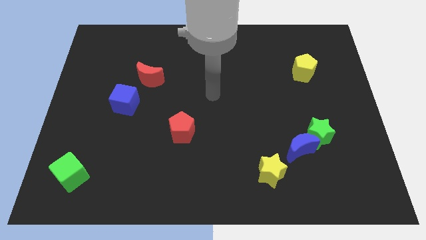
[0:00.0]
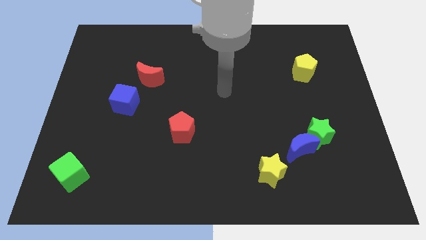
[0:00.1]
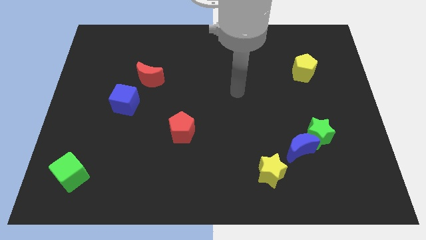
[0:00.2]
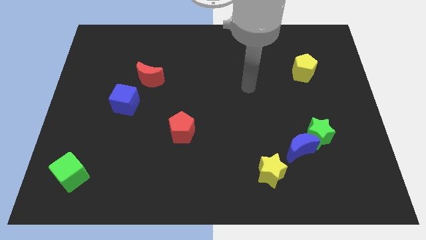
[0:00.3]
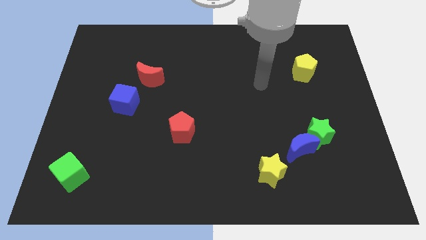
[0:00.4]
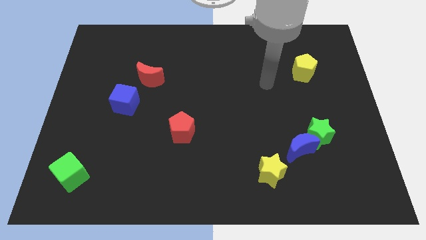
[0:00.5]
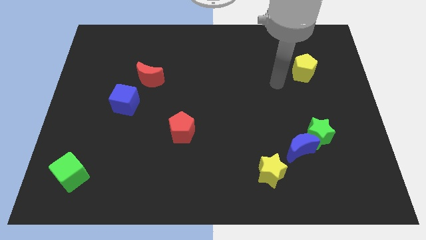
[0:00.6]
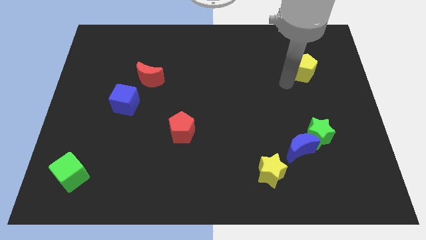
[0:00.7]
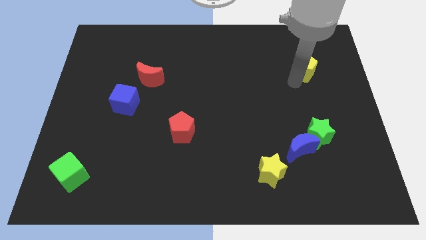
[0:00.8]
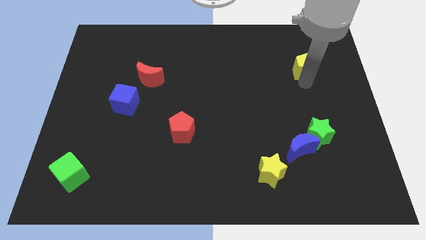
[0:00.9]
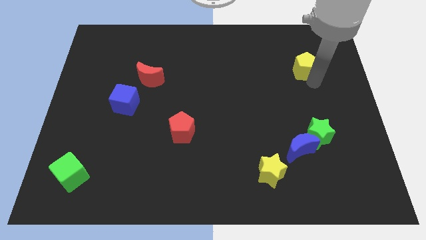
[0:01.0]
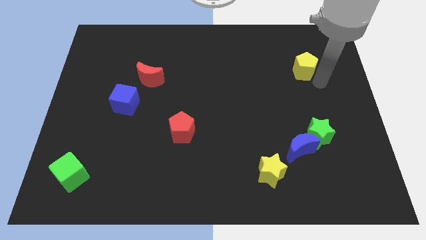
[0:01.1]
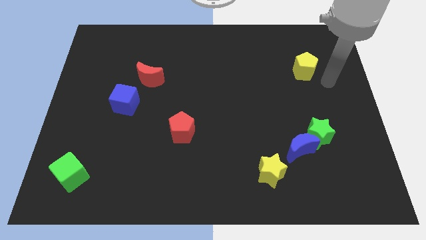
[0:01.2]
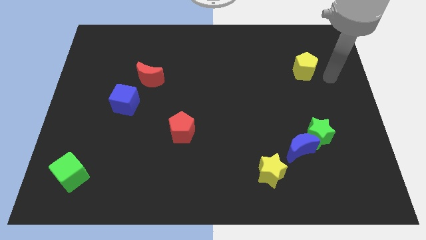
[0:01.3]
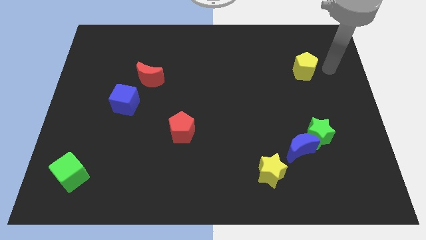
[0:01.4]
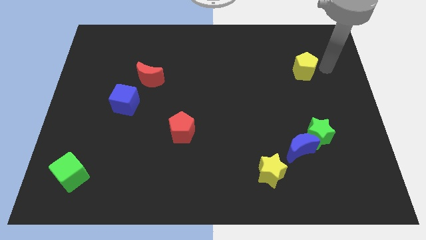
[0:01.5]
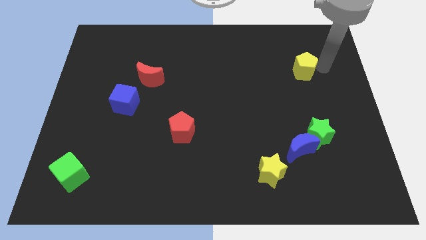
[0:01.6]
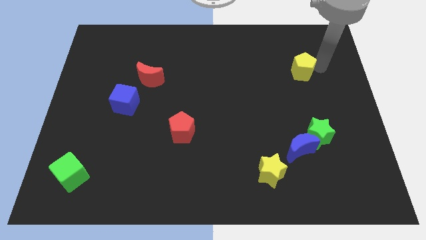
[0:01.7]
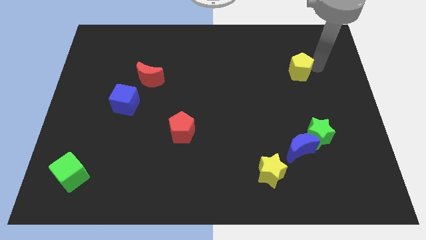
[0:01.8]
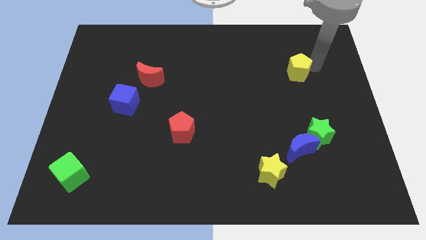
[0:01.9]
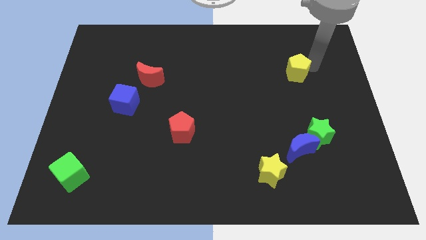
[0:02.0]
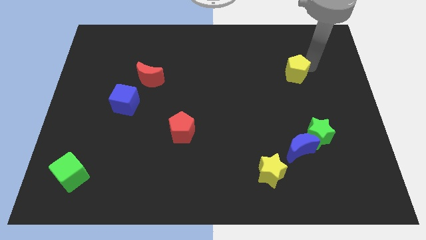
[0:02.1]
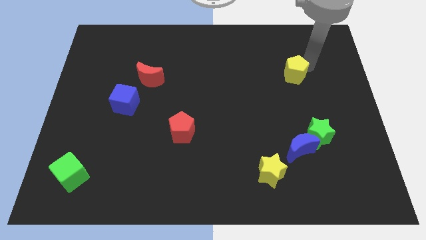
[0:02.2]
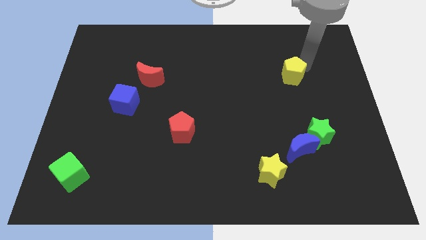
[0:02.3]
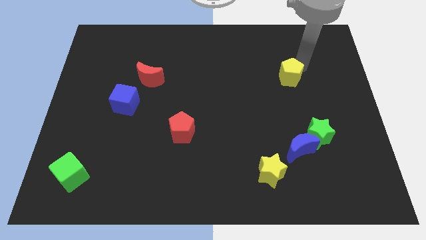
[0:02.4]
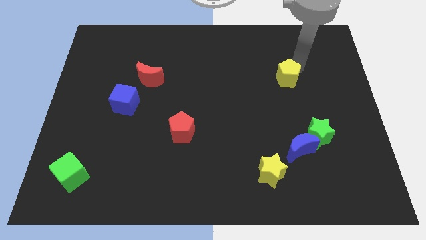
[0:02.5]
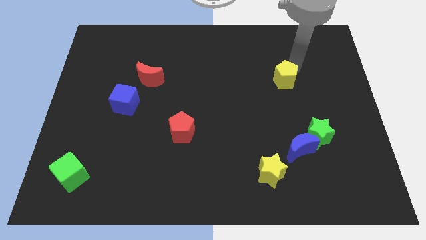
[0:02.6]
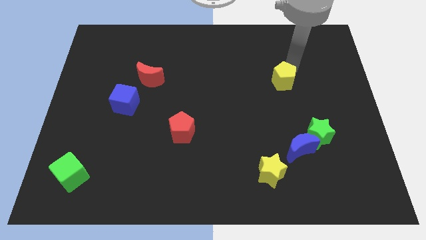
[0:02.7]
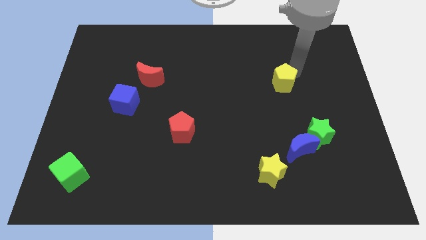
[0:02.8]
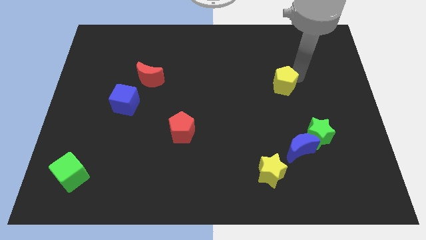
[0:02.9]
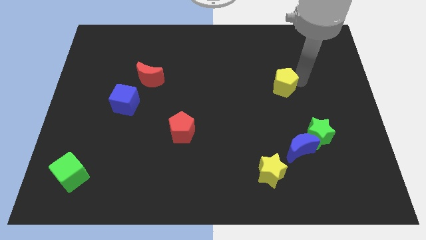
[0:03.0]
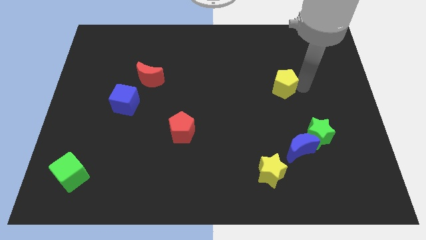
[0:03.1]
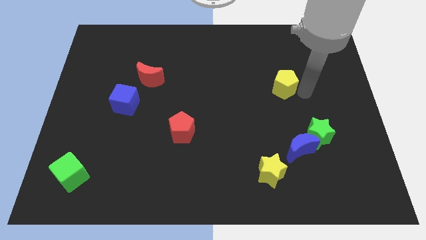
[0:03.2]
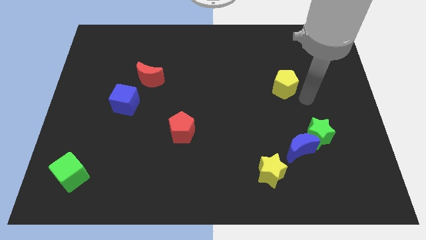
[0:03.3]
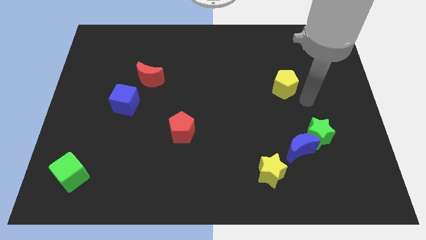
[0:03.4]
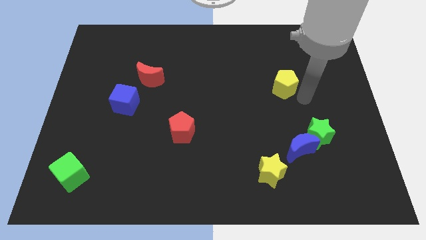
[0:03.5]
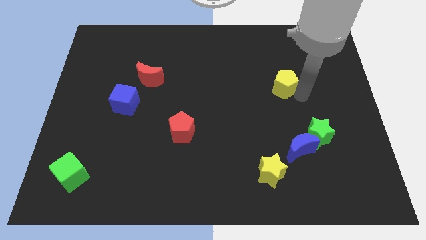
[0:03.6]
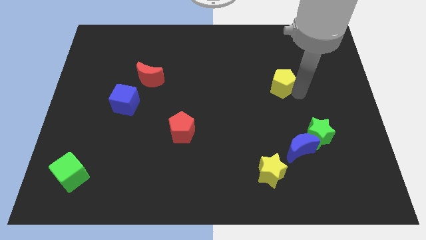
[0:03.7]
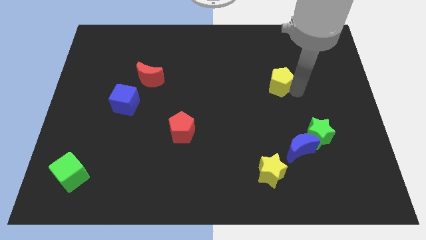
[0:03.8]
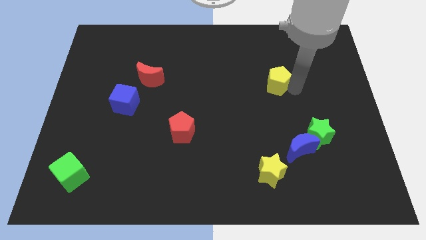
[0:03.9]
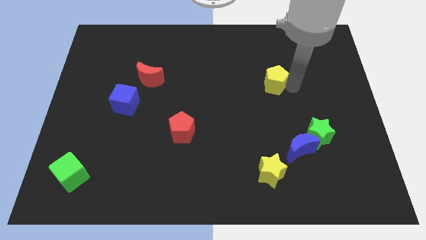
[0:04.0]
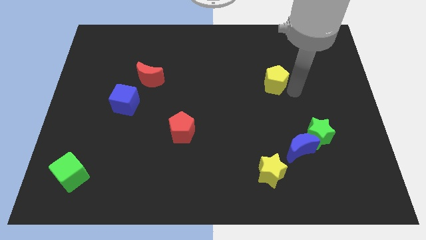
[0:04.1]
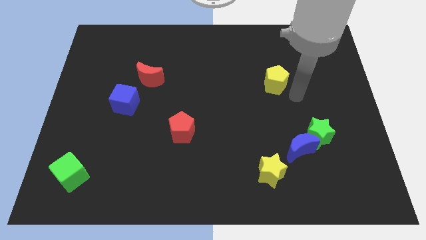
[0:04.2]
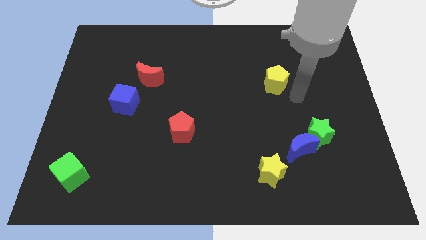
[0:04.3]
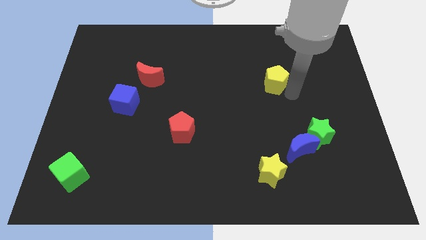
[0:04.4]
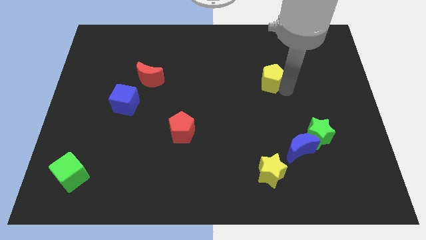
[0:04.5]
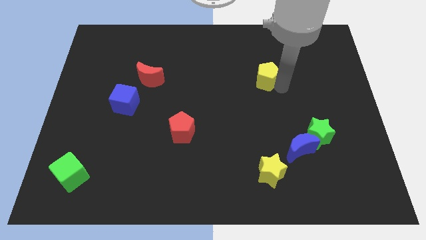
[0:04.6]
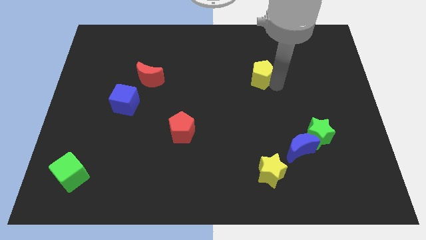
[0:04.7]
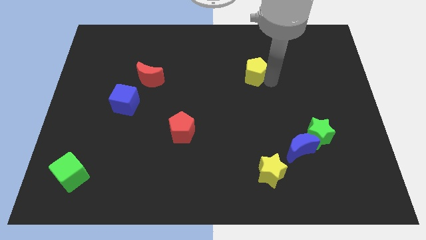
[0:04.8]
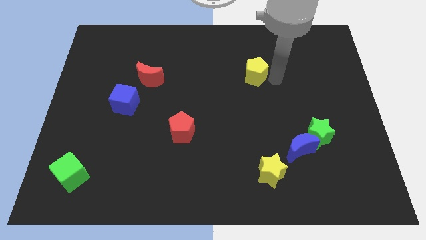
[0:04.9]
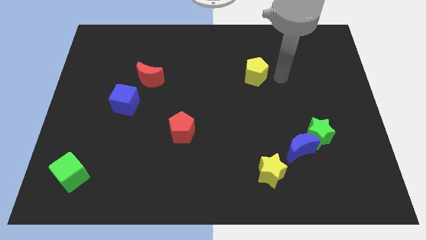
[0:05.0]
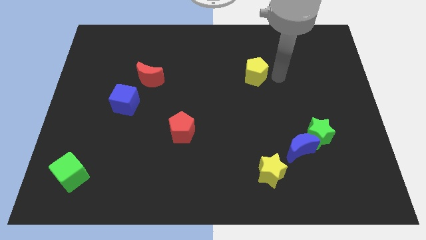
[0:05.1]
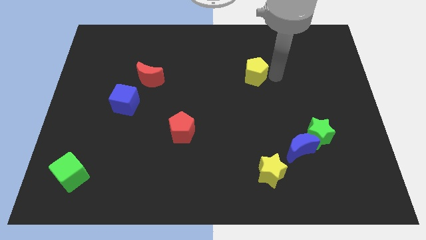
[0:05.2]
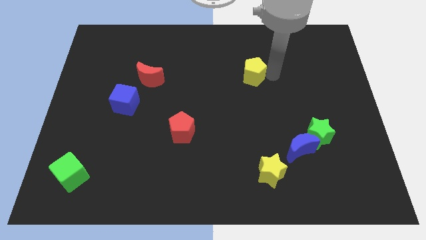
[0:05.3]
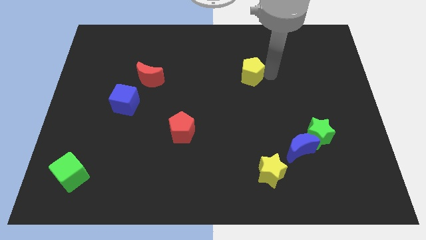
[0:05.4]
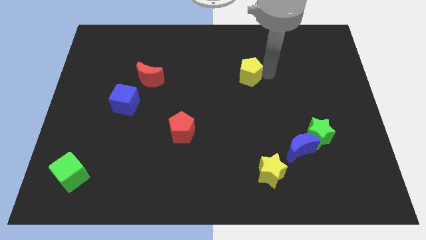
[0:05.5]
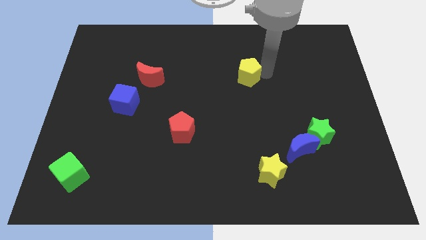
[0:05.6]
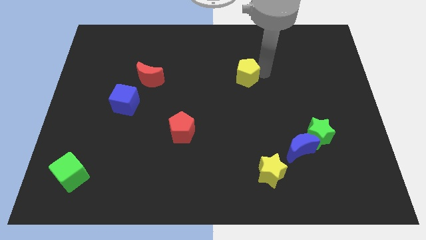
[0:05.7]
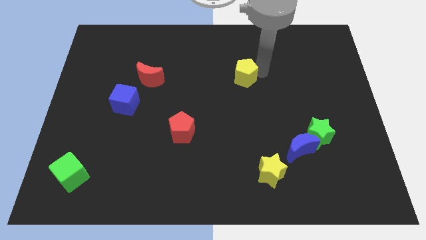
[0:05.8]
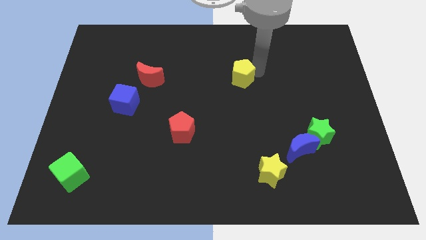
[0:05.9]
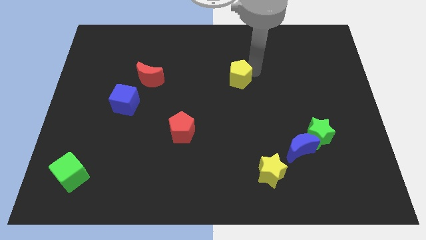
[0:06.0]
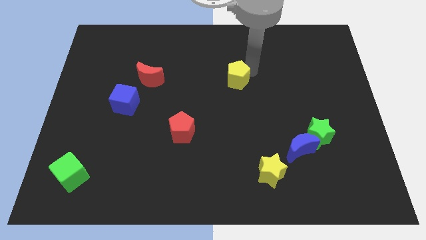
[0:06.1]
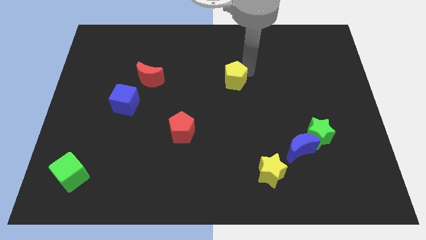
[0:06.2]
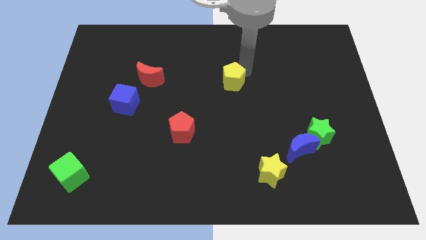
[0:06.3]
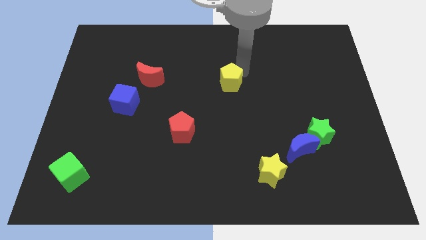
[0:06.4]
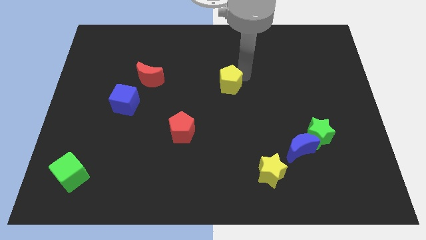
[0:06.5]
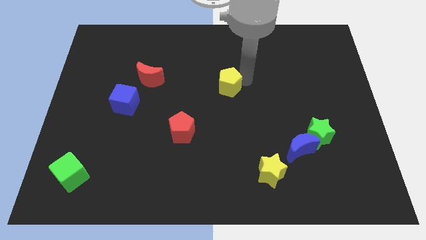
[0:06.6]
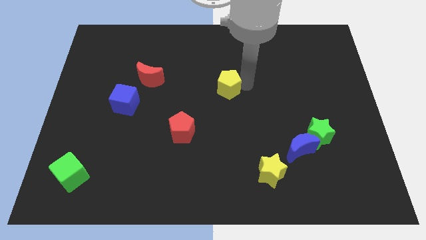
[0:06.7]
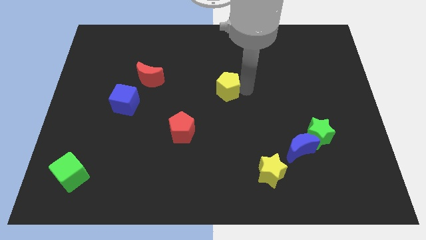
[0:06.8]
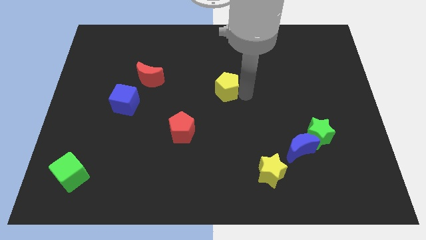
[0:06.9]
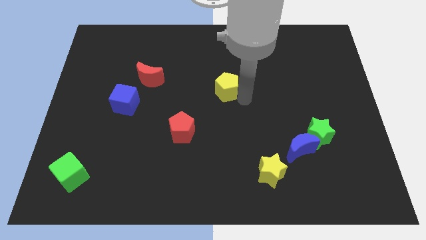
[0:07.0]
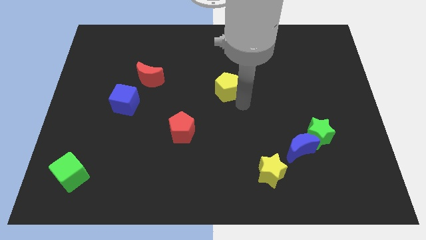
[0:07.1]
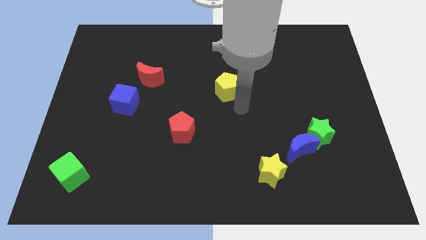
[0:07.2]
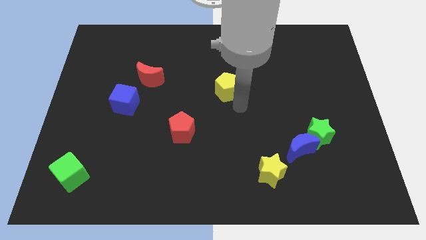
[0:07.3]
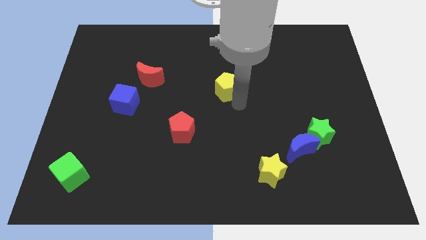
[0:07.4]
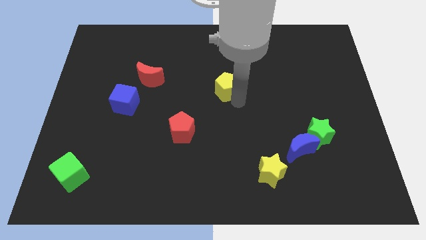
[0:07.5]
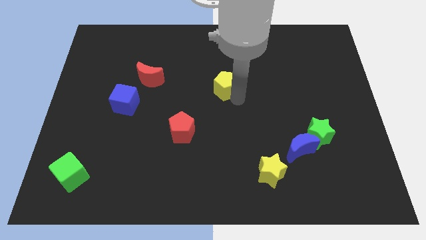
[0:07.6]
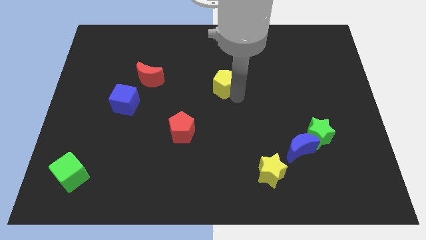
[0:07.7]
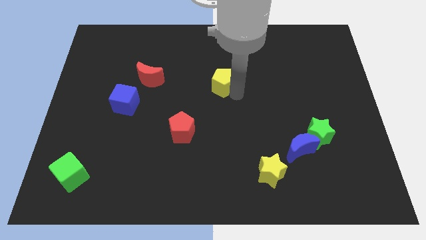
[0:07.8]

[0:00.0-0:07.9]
slide the yellow pentagon to the left

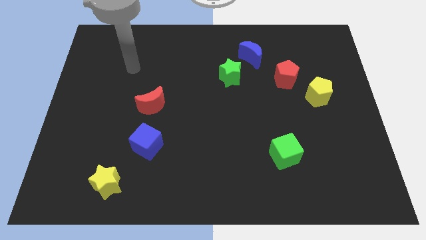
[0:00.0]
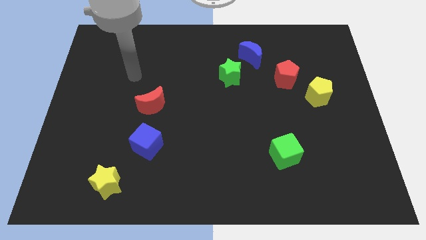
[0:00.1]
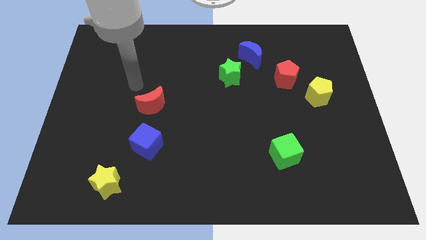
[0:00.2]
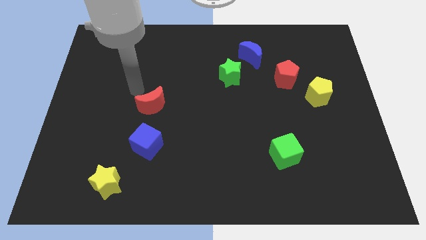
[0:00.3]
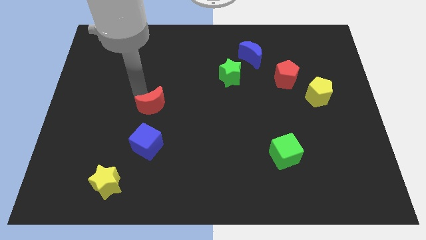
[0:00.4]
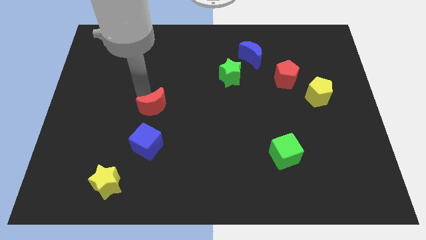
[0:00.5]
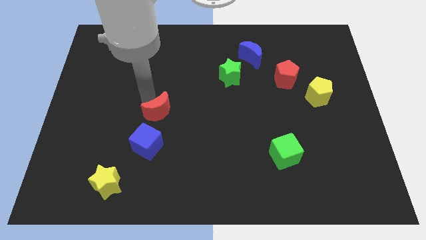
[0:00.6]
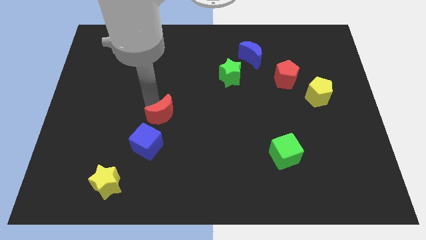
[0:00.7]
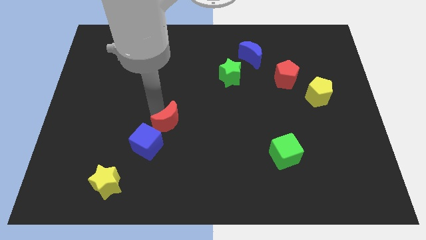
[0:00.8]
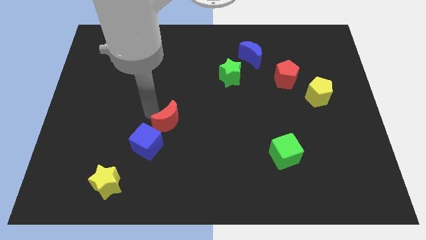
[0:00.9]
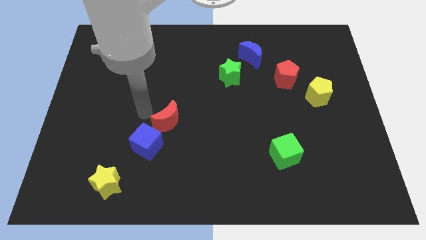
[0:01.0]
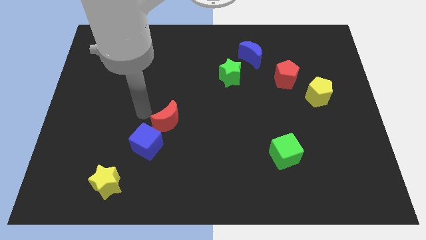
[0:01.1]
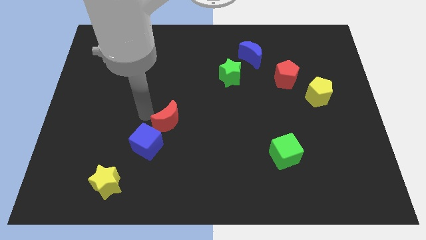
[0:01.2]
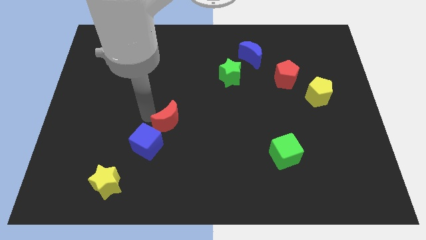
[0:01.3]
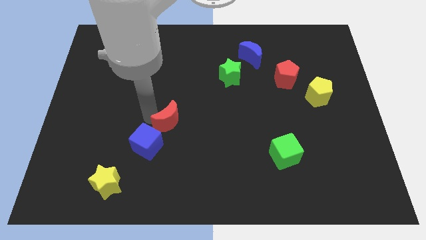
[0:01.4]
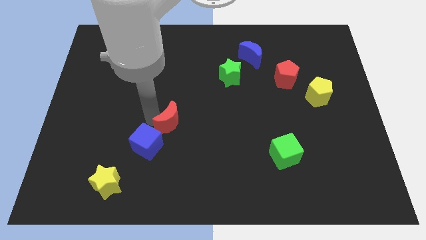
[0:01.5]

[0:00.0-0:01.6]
slide the red moon down and to the right diagonally a little
